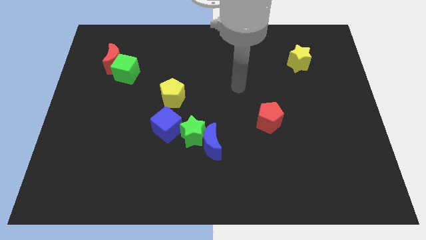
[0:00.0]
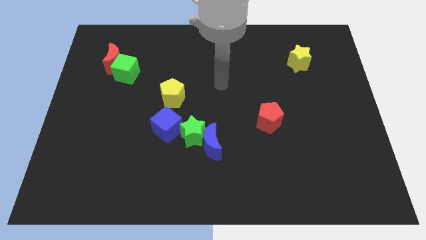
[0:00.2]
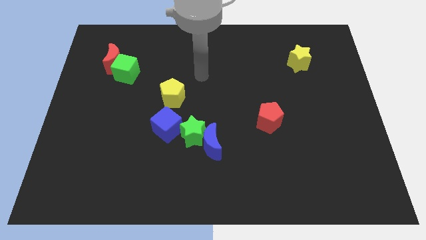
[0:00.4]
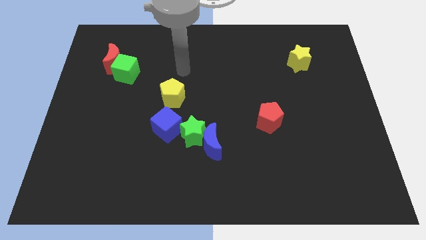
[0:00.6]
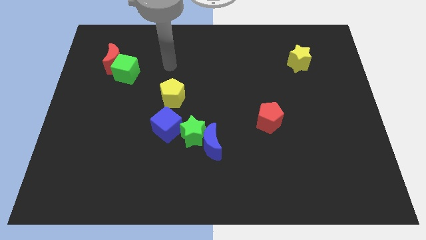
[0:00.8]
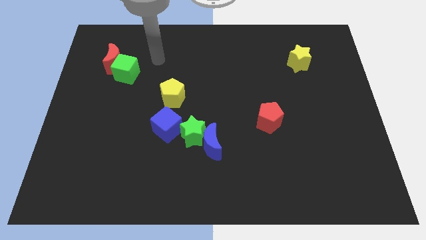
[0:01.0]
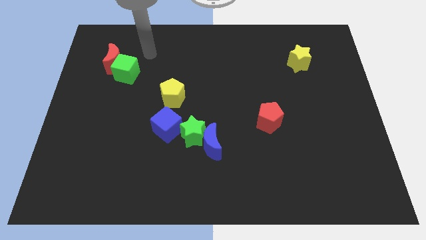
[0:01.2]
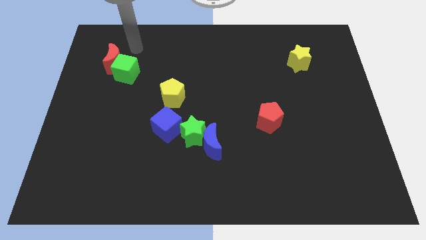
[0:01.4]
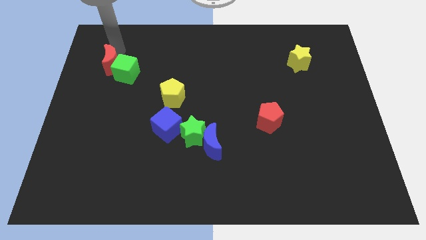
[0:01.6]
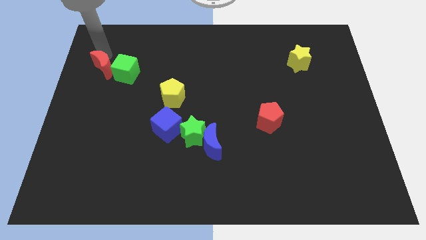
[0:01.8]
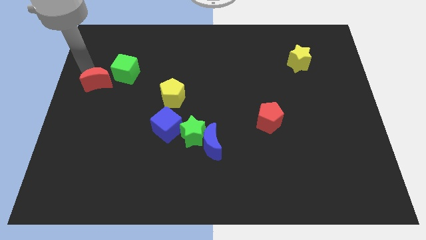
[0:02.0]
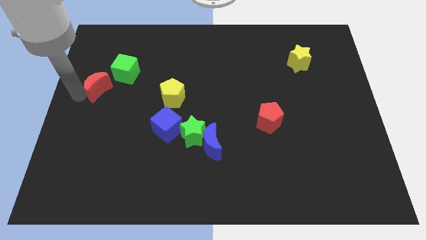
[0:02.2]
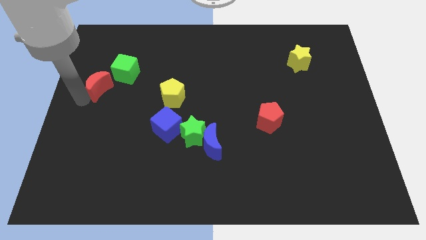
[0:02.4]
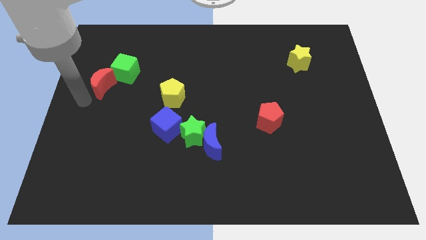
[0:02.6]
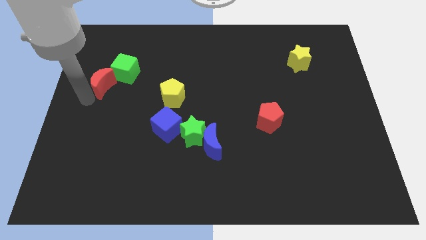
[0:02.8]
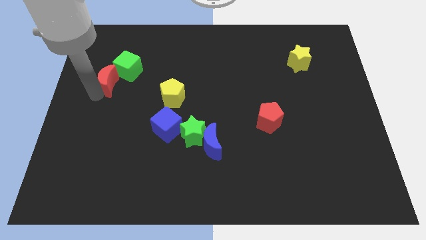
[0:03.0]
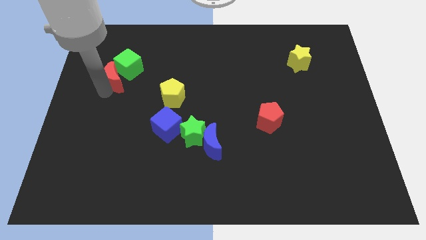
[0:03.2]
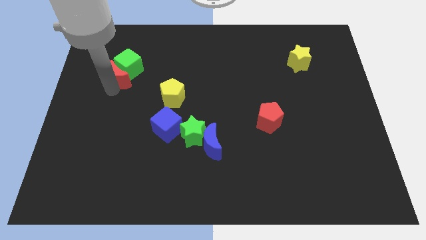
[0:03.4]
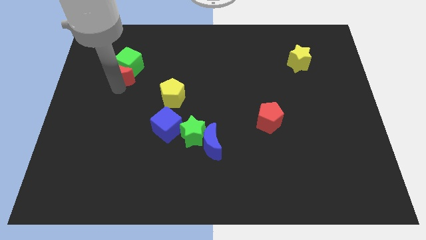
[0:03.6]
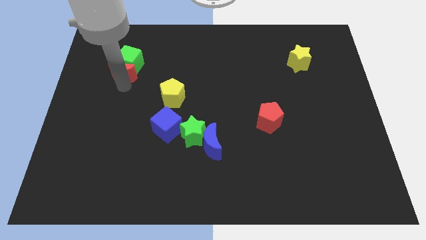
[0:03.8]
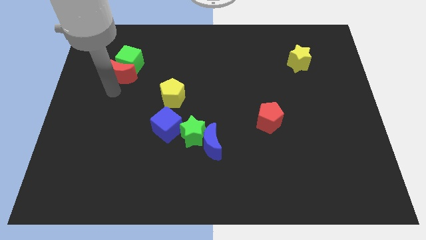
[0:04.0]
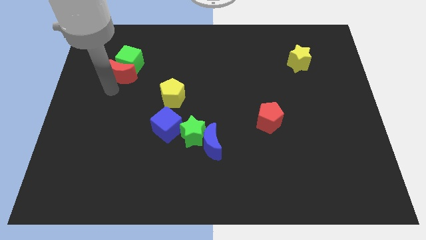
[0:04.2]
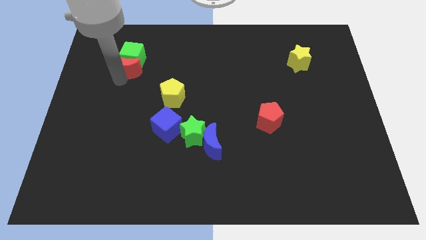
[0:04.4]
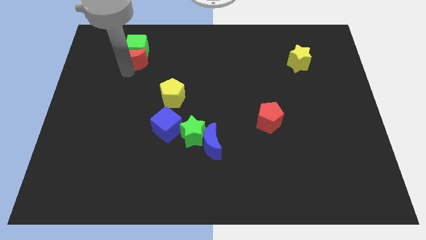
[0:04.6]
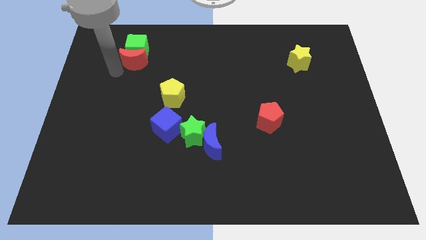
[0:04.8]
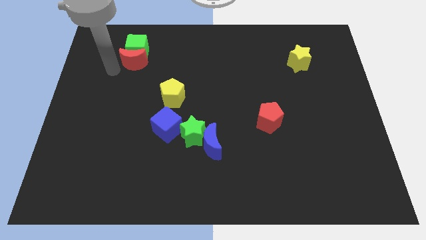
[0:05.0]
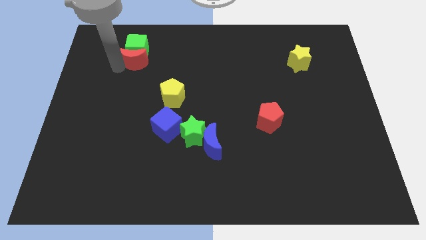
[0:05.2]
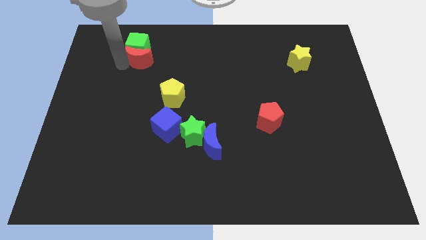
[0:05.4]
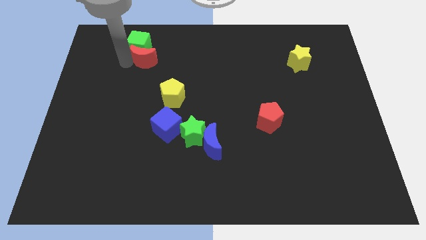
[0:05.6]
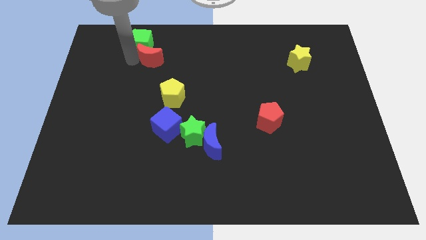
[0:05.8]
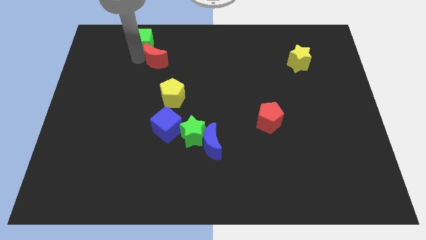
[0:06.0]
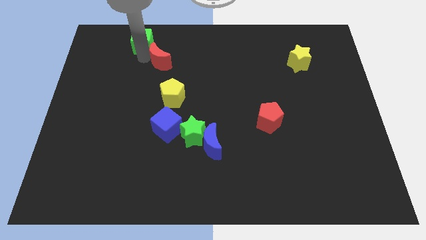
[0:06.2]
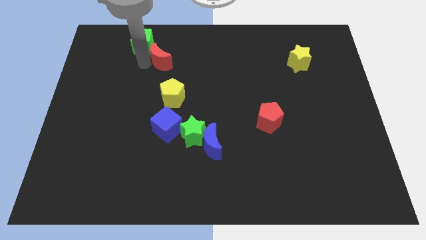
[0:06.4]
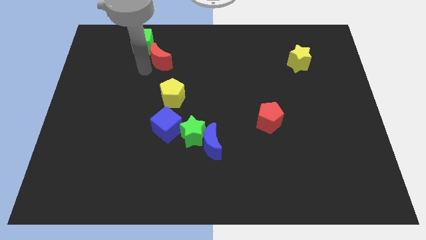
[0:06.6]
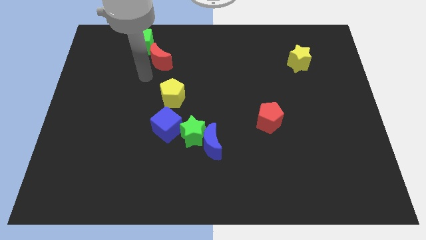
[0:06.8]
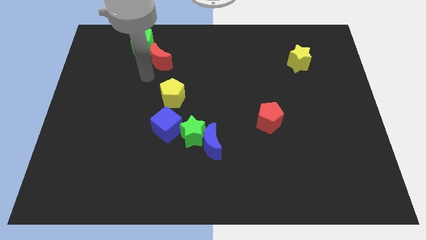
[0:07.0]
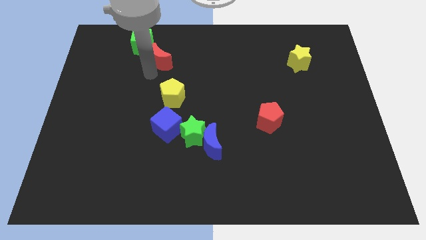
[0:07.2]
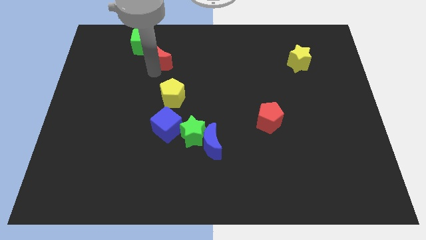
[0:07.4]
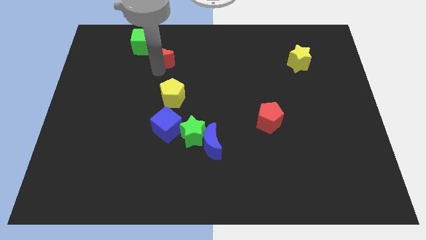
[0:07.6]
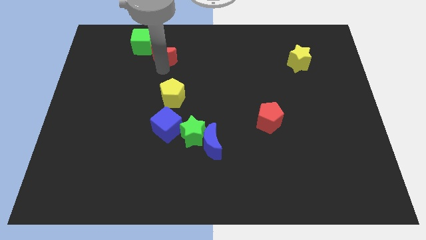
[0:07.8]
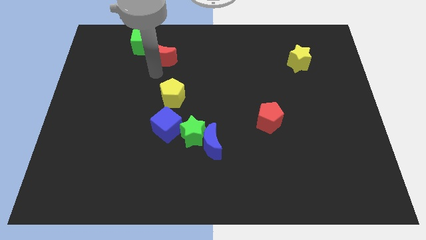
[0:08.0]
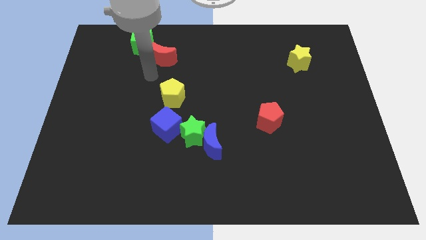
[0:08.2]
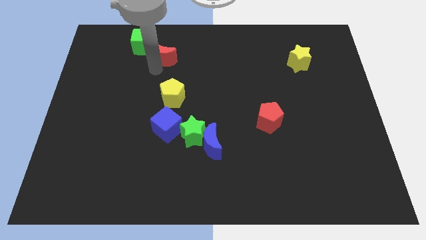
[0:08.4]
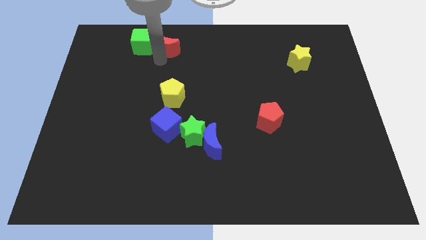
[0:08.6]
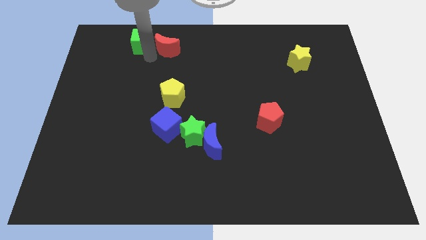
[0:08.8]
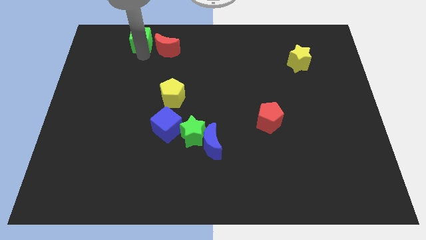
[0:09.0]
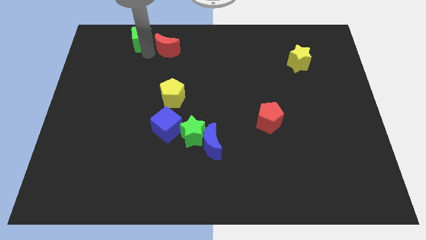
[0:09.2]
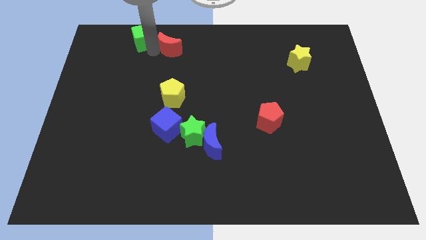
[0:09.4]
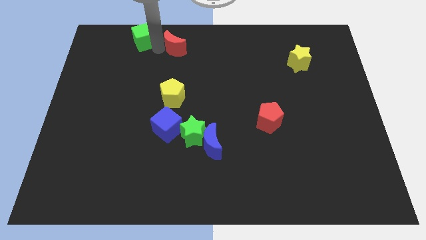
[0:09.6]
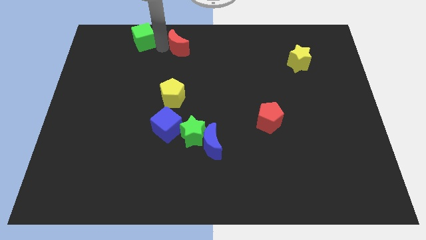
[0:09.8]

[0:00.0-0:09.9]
slide the red moon to the top

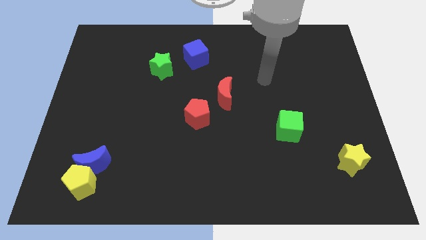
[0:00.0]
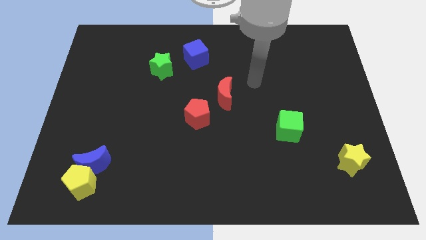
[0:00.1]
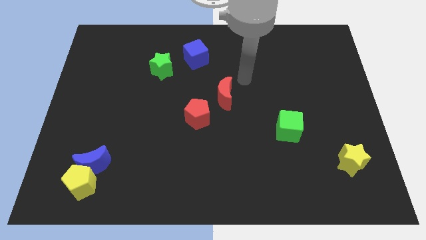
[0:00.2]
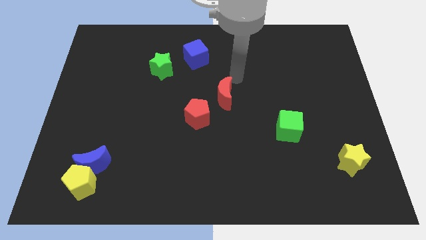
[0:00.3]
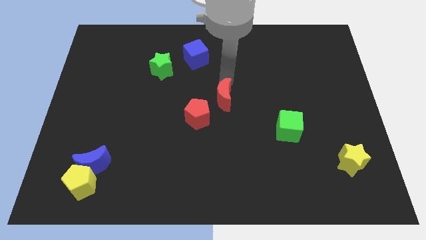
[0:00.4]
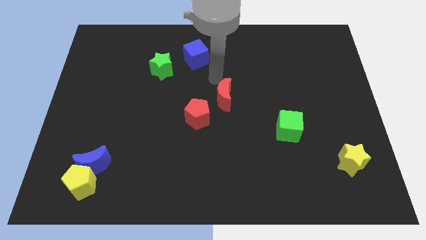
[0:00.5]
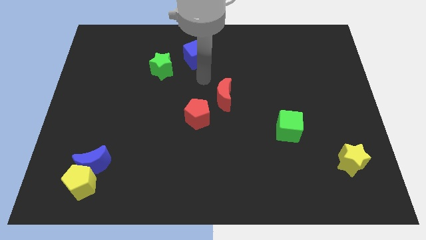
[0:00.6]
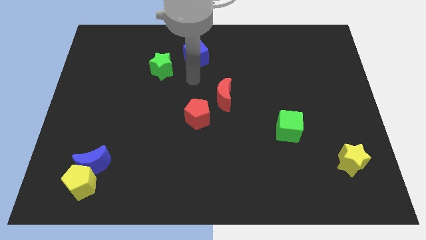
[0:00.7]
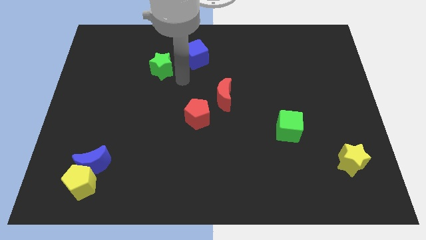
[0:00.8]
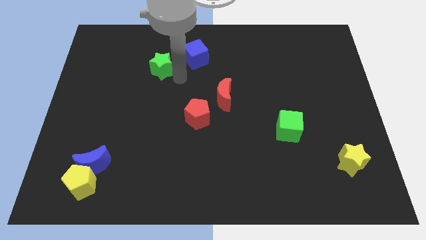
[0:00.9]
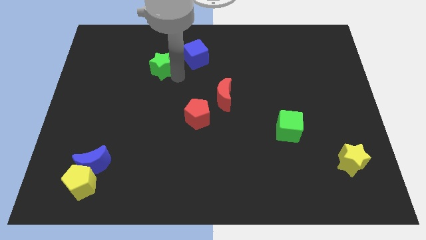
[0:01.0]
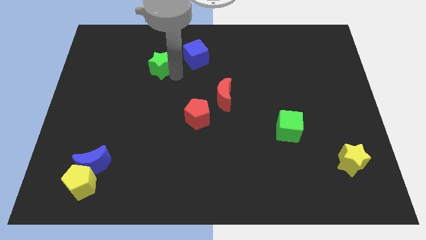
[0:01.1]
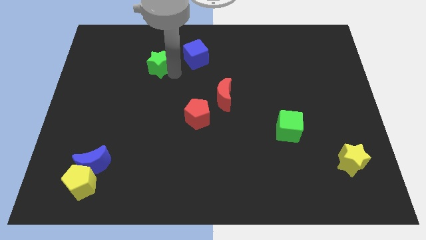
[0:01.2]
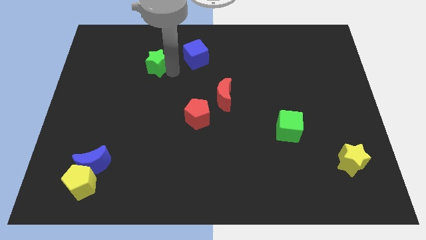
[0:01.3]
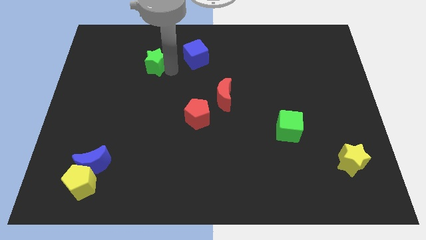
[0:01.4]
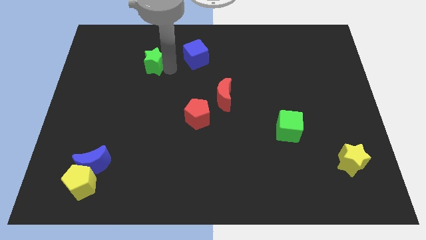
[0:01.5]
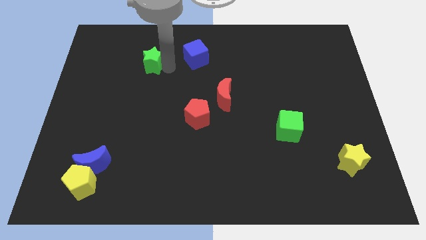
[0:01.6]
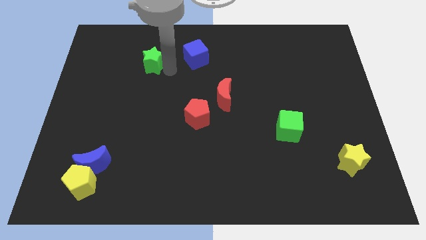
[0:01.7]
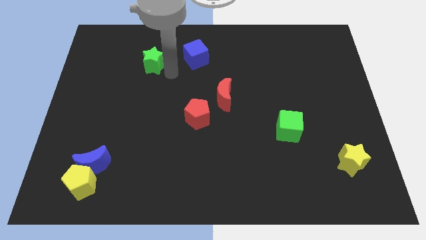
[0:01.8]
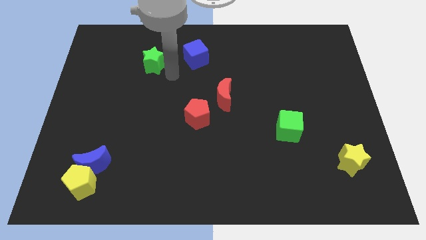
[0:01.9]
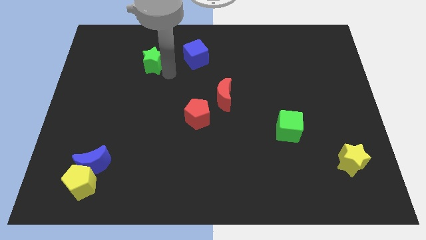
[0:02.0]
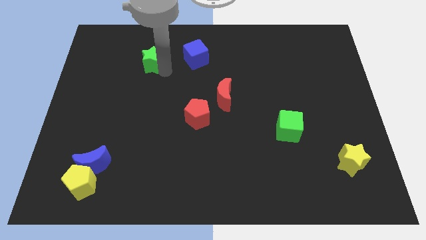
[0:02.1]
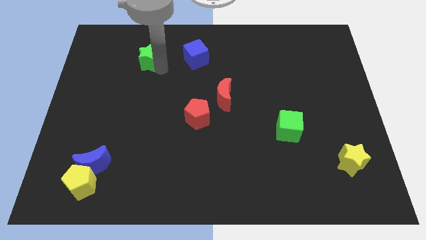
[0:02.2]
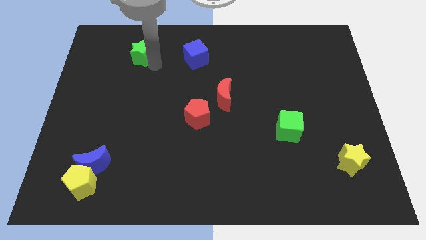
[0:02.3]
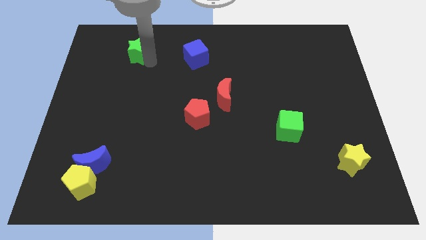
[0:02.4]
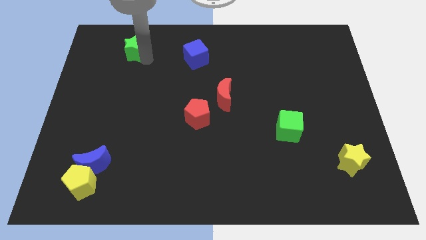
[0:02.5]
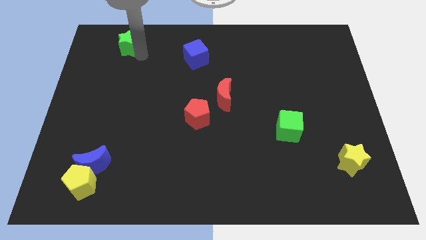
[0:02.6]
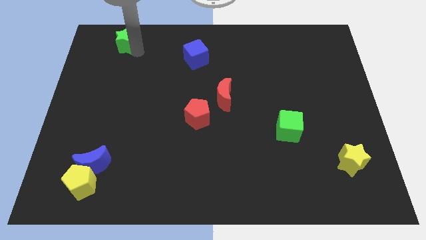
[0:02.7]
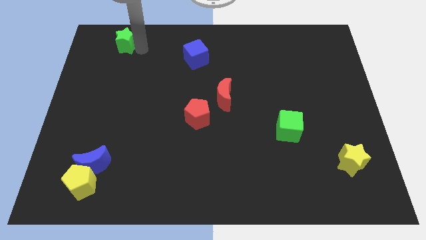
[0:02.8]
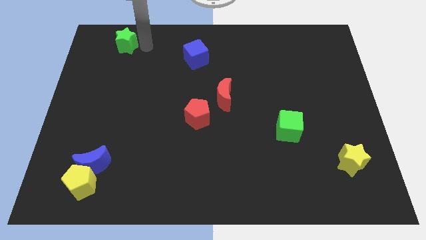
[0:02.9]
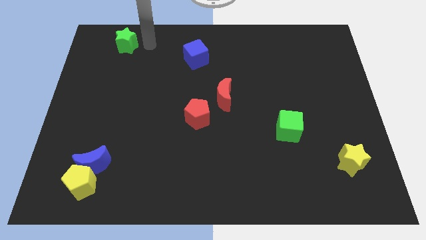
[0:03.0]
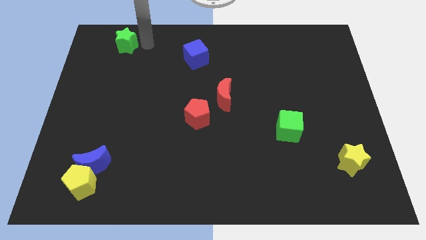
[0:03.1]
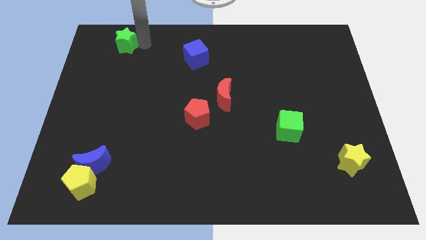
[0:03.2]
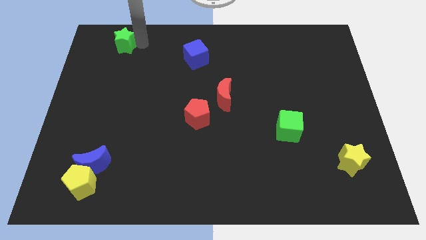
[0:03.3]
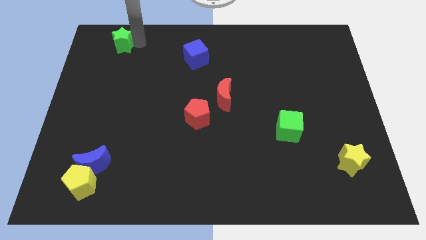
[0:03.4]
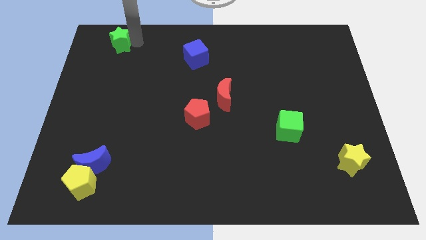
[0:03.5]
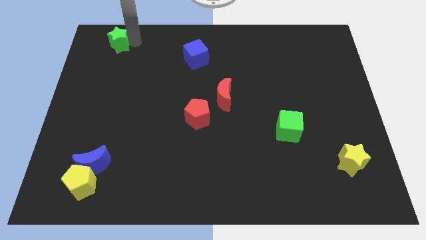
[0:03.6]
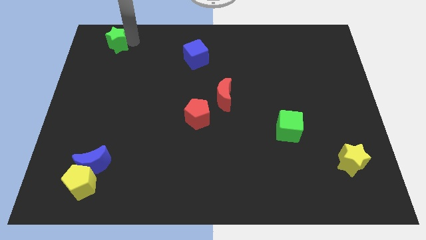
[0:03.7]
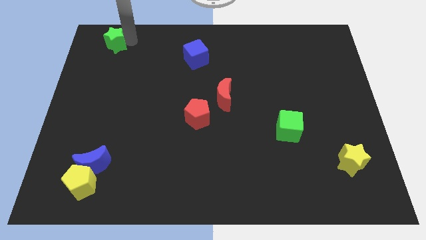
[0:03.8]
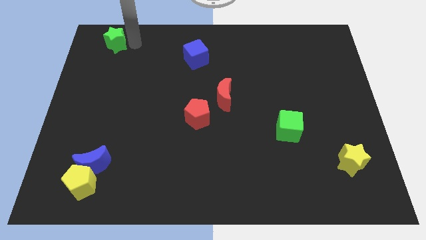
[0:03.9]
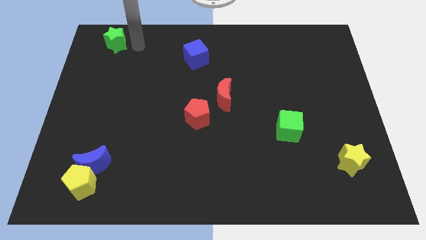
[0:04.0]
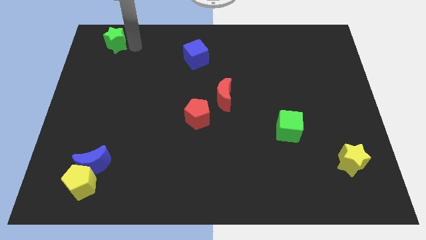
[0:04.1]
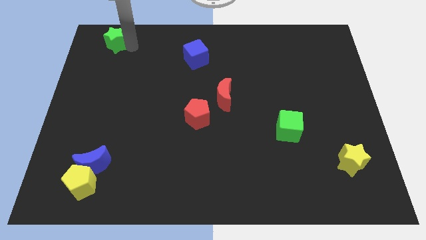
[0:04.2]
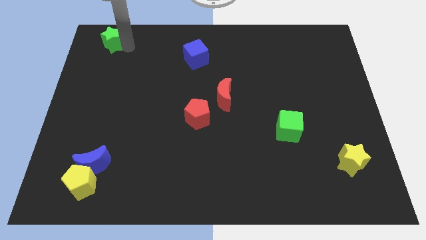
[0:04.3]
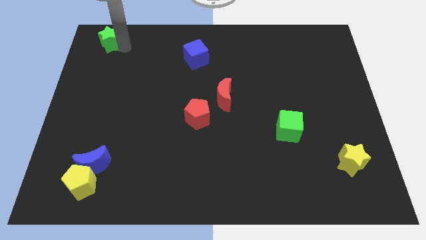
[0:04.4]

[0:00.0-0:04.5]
put the green star to the top left of the board
